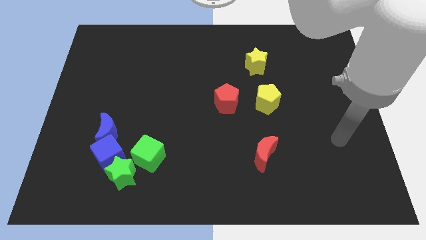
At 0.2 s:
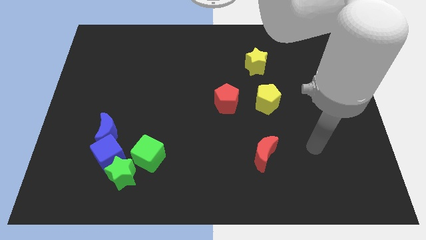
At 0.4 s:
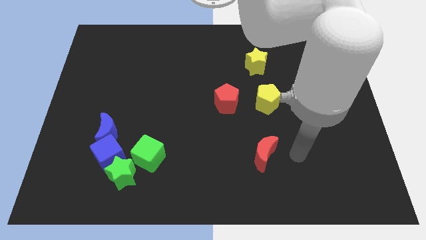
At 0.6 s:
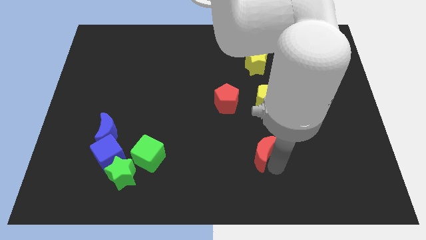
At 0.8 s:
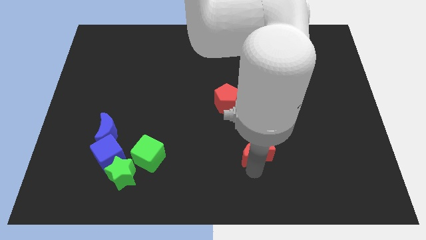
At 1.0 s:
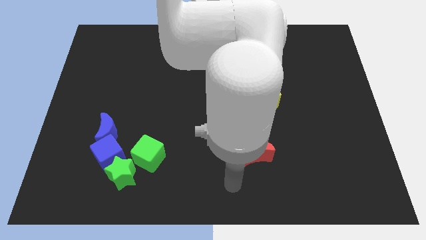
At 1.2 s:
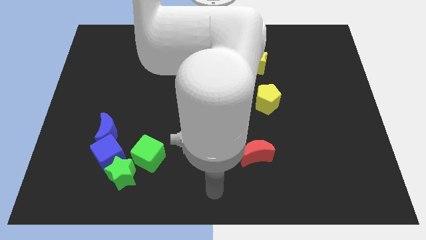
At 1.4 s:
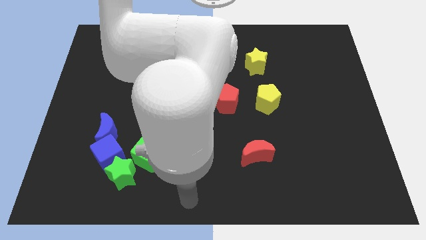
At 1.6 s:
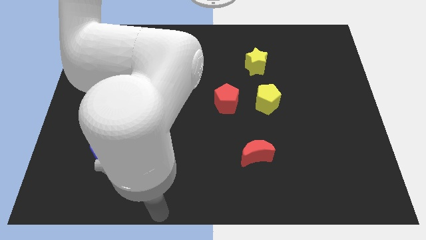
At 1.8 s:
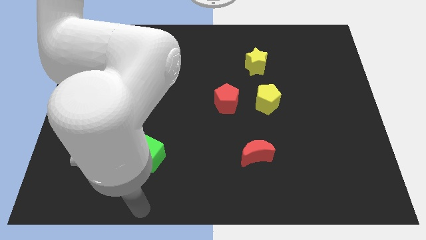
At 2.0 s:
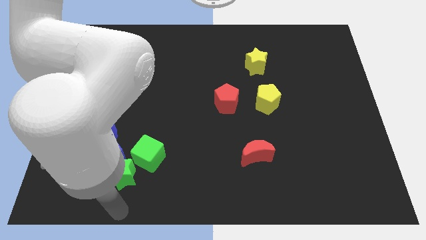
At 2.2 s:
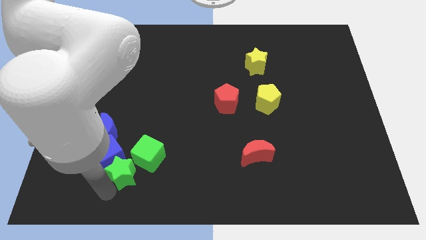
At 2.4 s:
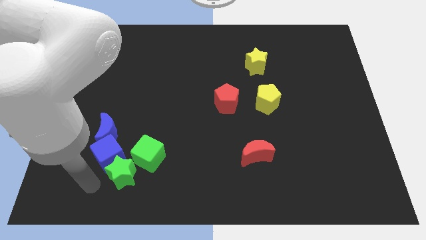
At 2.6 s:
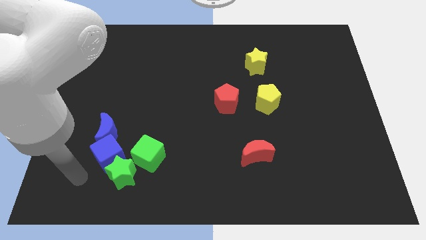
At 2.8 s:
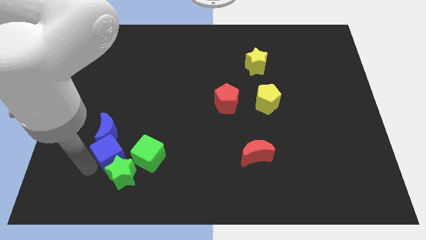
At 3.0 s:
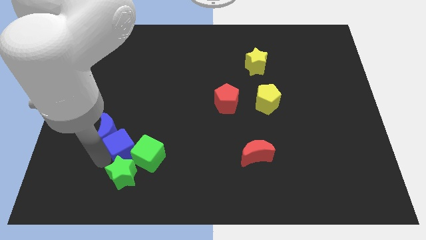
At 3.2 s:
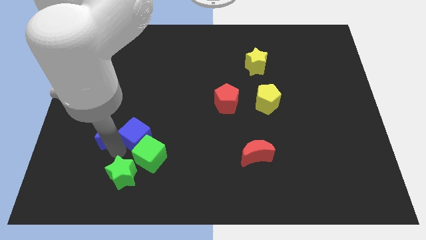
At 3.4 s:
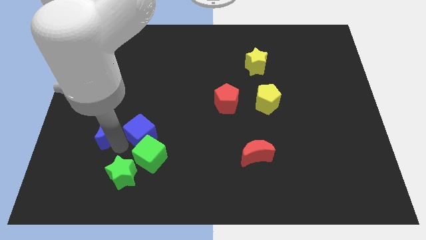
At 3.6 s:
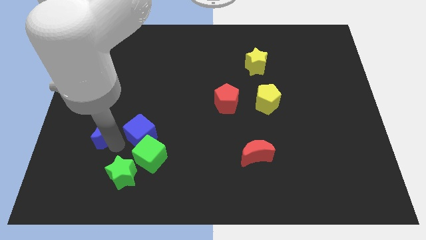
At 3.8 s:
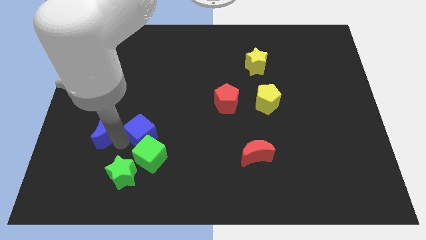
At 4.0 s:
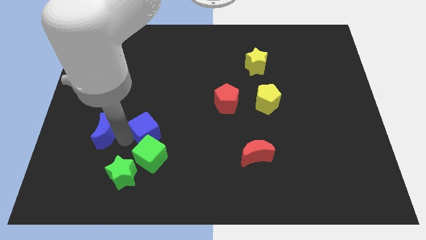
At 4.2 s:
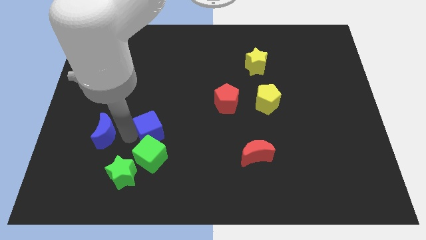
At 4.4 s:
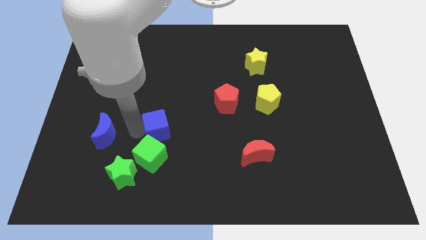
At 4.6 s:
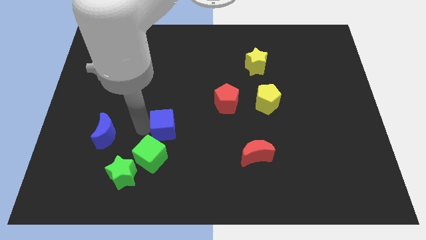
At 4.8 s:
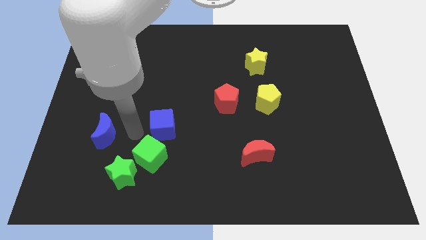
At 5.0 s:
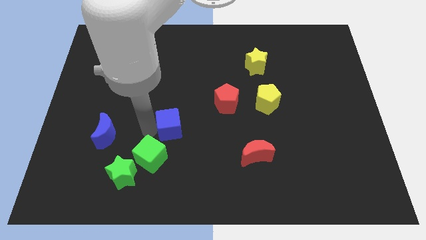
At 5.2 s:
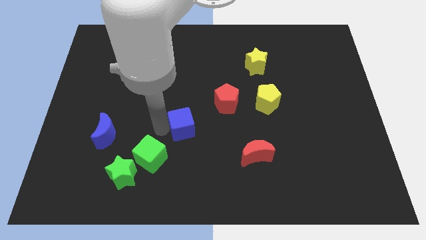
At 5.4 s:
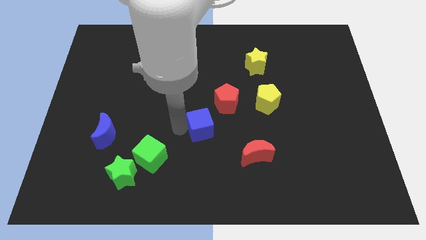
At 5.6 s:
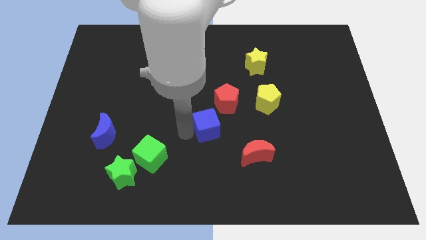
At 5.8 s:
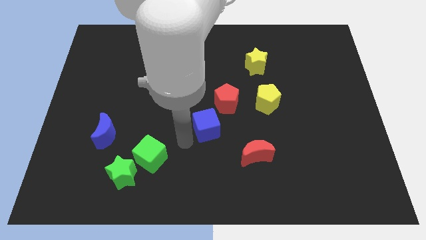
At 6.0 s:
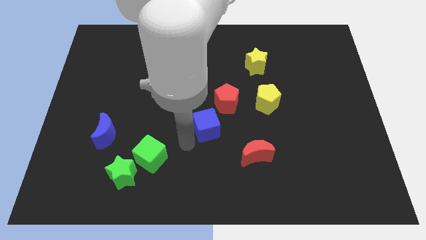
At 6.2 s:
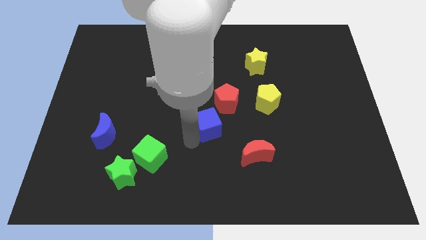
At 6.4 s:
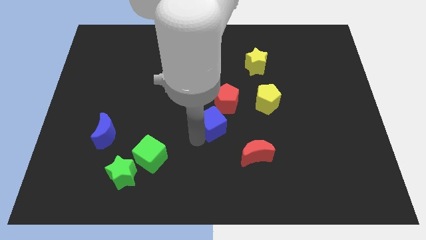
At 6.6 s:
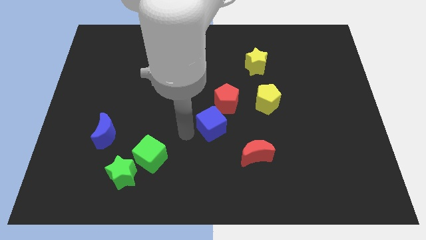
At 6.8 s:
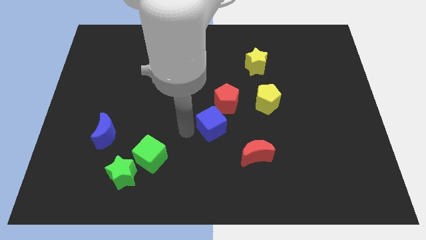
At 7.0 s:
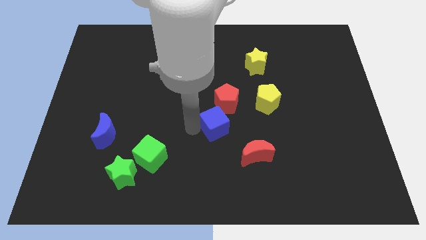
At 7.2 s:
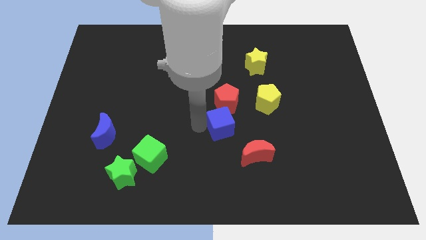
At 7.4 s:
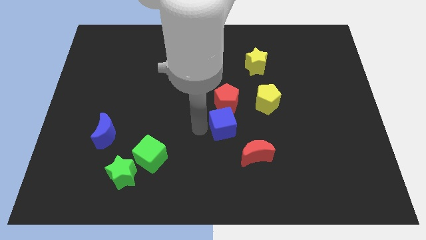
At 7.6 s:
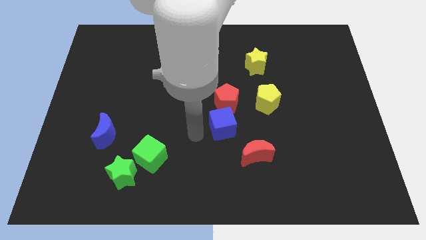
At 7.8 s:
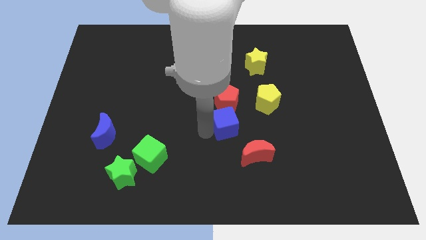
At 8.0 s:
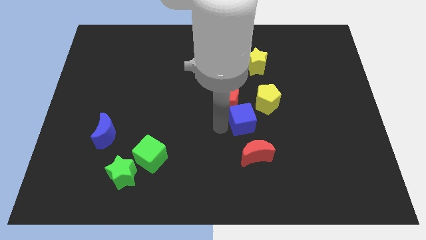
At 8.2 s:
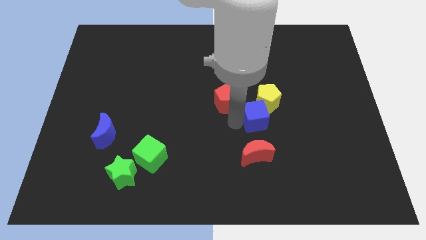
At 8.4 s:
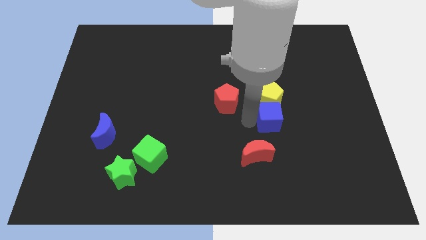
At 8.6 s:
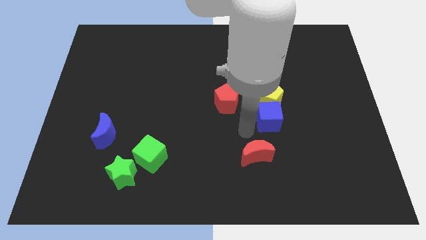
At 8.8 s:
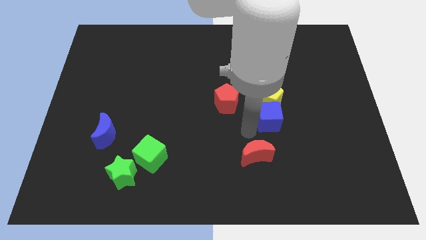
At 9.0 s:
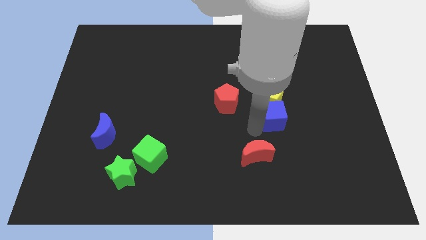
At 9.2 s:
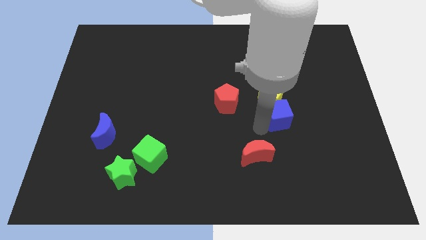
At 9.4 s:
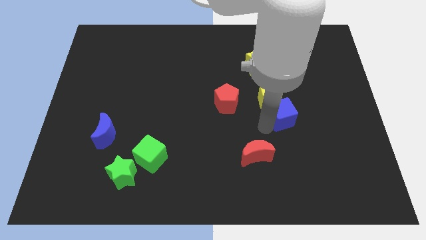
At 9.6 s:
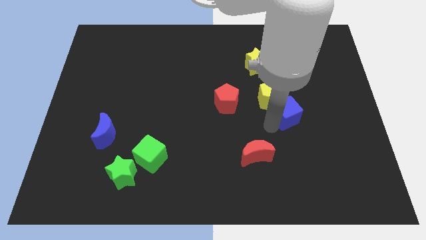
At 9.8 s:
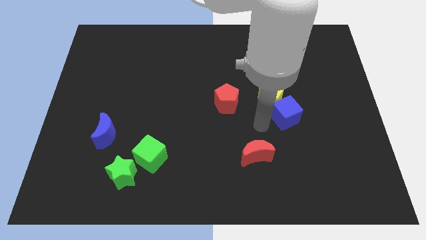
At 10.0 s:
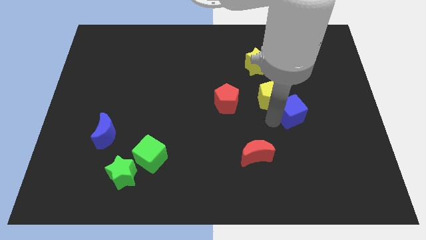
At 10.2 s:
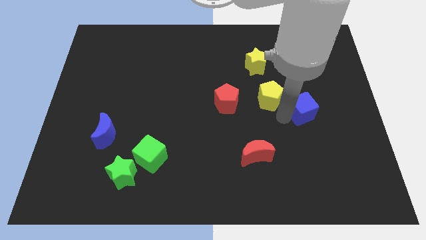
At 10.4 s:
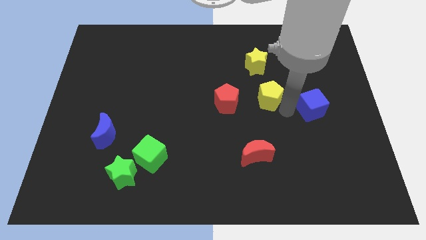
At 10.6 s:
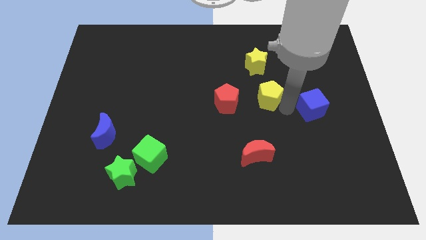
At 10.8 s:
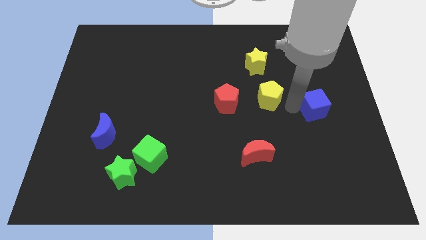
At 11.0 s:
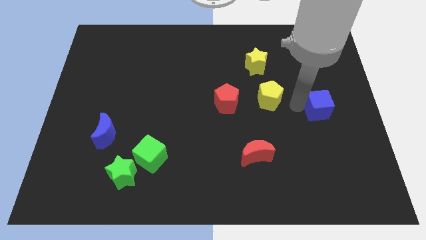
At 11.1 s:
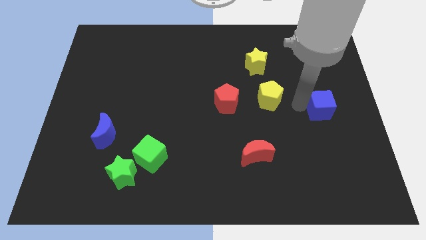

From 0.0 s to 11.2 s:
slide the blue cube to the center right

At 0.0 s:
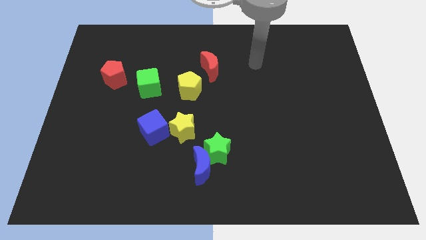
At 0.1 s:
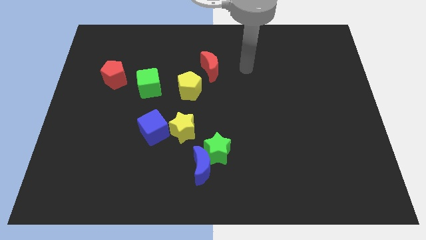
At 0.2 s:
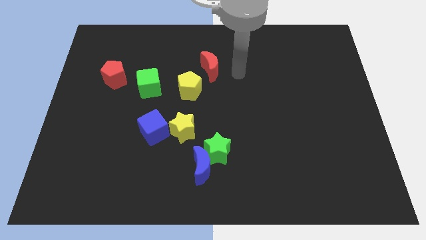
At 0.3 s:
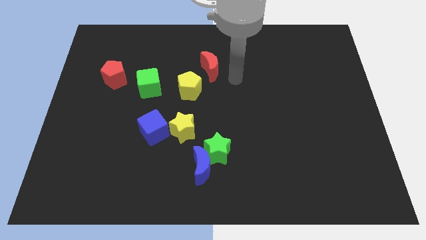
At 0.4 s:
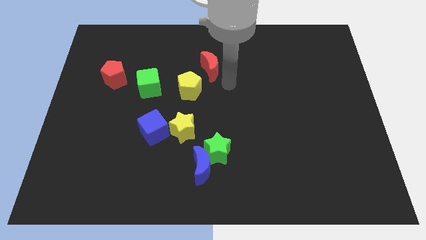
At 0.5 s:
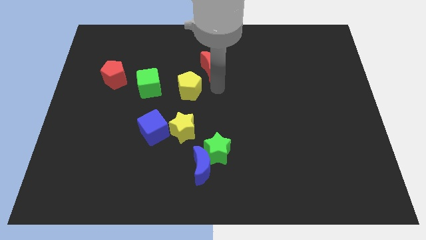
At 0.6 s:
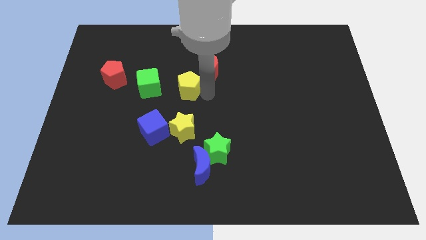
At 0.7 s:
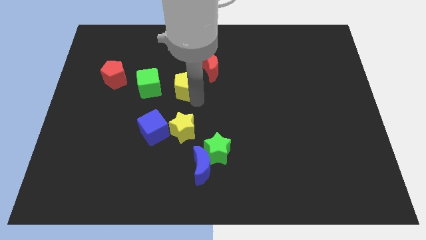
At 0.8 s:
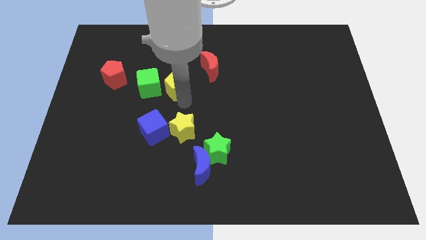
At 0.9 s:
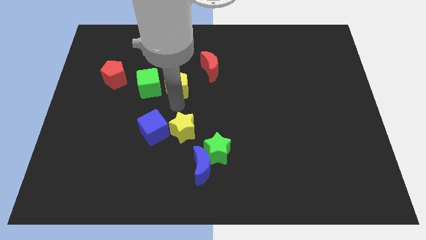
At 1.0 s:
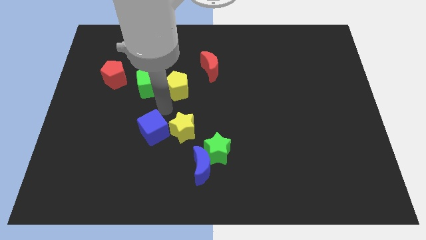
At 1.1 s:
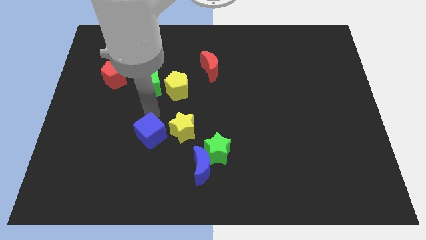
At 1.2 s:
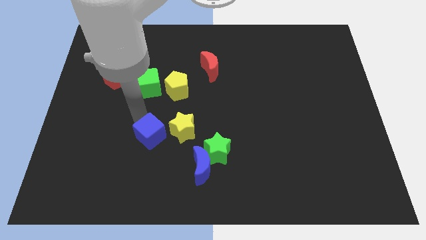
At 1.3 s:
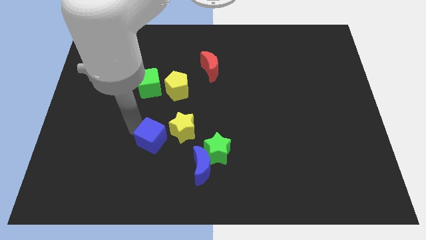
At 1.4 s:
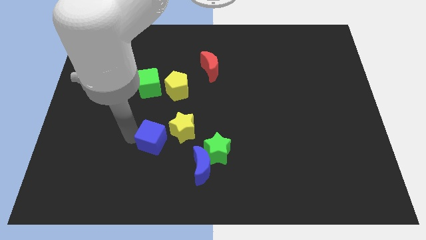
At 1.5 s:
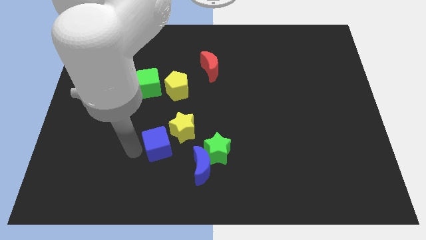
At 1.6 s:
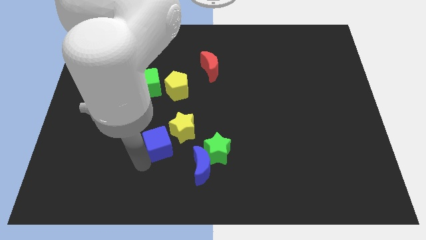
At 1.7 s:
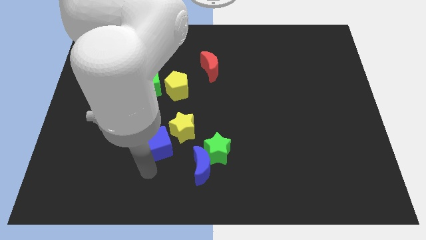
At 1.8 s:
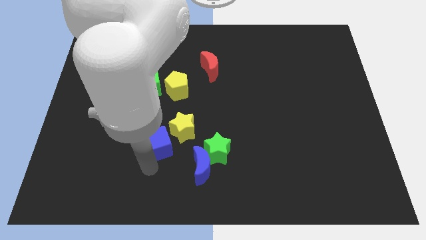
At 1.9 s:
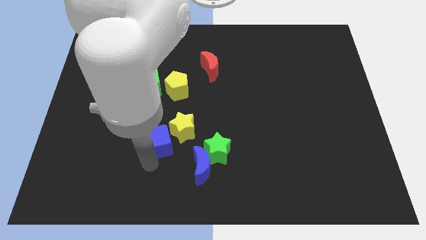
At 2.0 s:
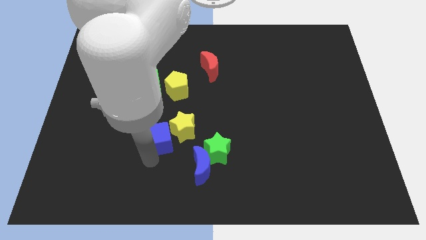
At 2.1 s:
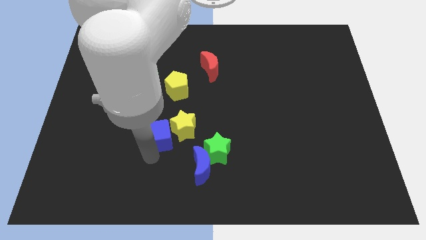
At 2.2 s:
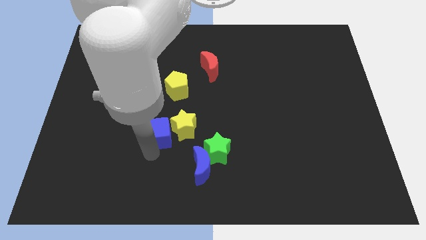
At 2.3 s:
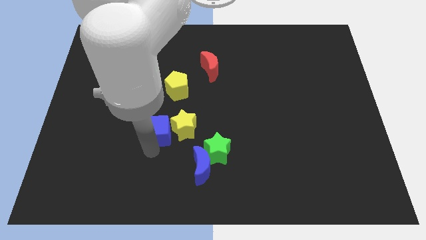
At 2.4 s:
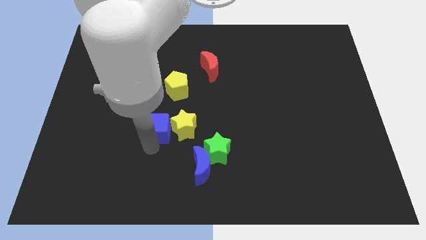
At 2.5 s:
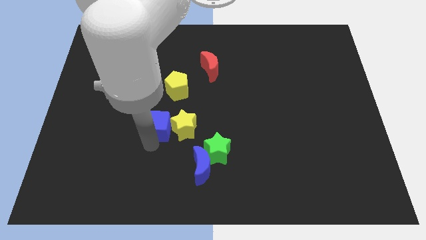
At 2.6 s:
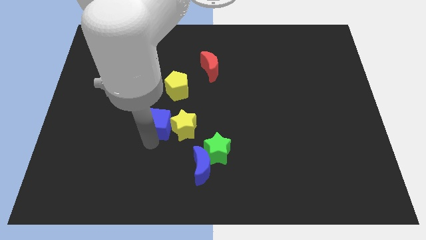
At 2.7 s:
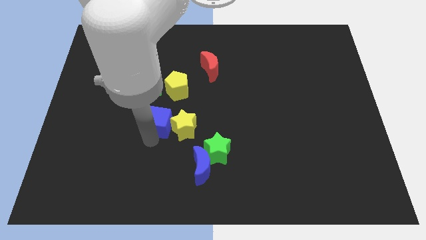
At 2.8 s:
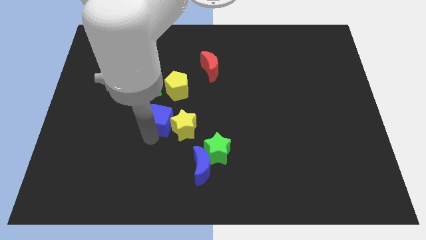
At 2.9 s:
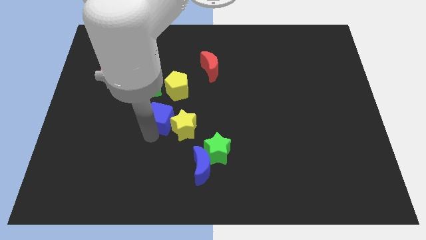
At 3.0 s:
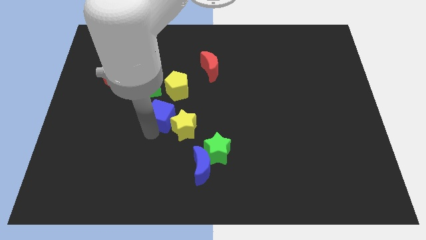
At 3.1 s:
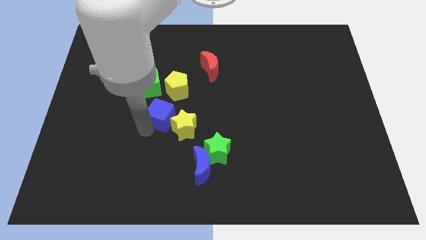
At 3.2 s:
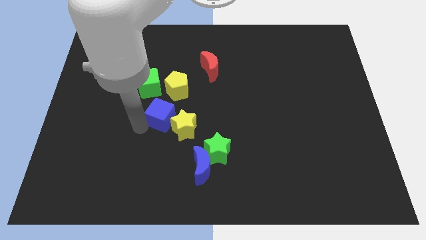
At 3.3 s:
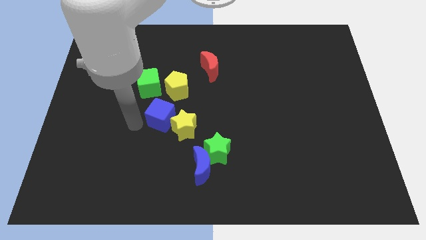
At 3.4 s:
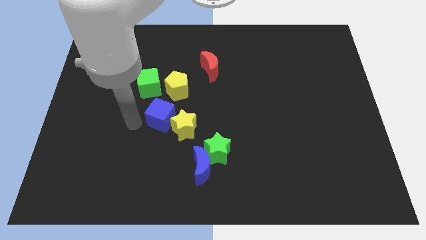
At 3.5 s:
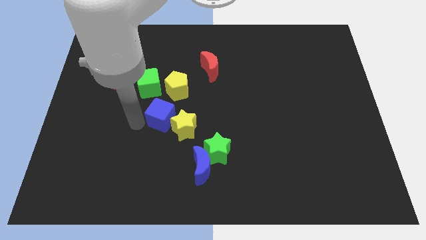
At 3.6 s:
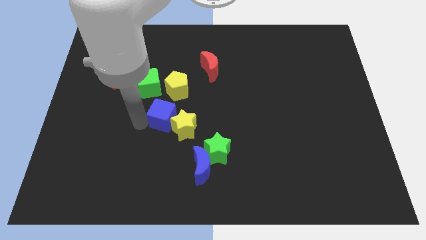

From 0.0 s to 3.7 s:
slide the blue cube to the middle
